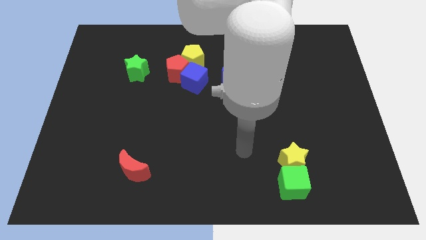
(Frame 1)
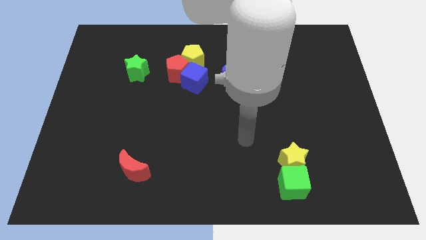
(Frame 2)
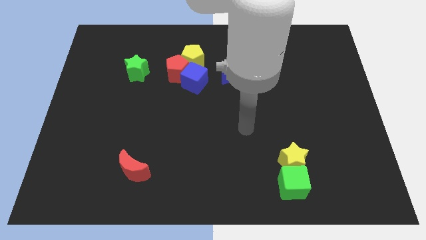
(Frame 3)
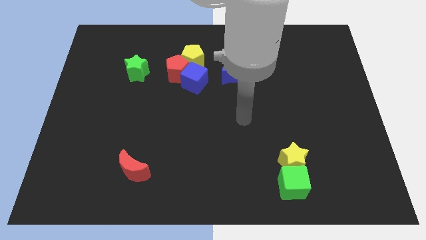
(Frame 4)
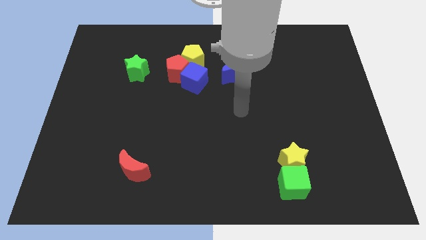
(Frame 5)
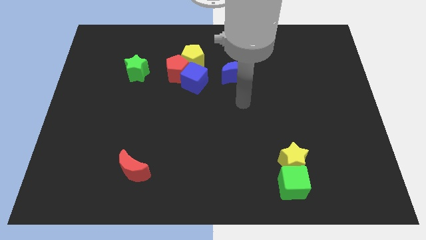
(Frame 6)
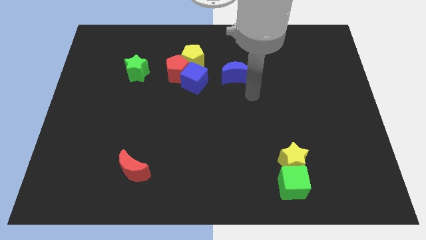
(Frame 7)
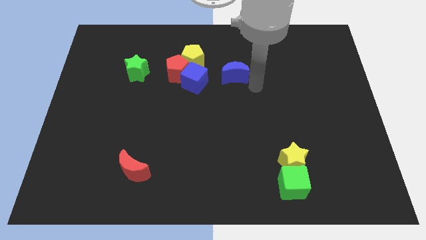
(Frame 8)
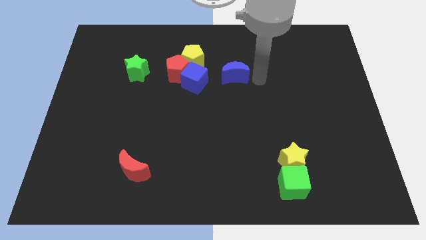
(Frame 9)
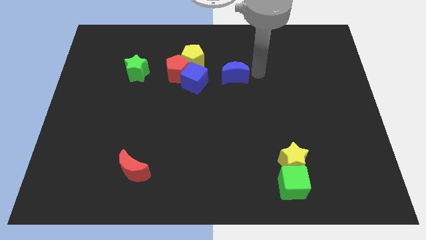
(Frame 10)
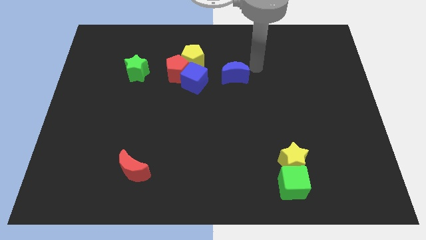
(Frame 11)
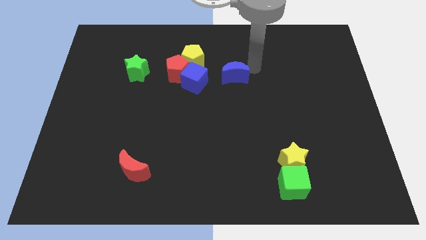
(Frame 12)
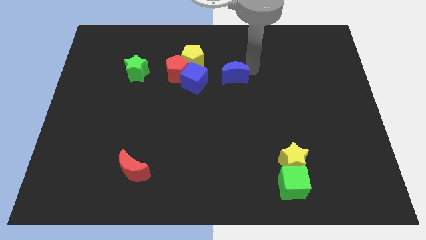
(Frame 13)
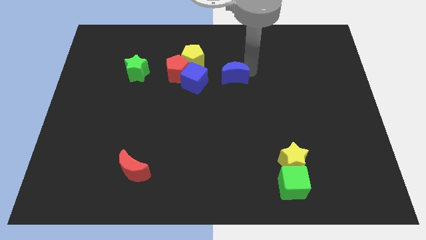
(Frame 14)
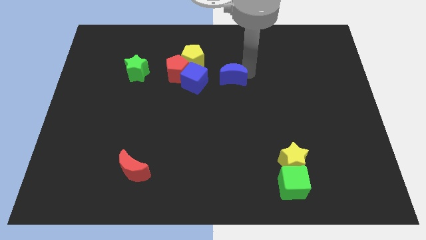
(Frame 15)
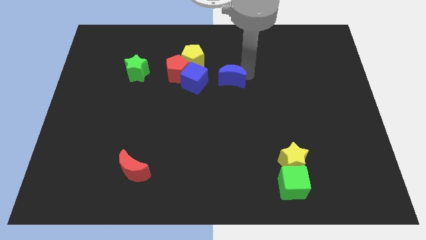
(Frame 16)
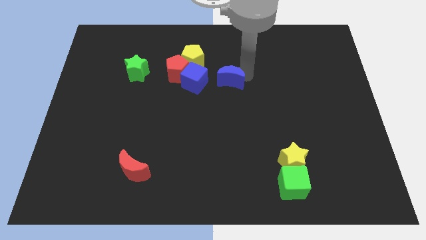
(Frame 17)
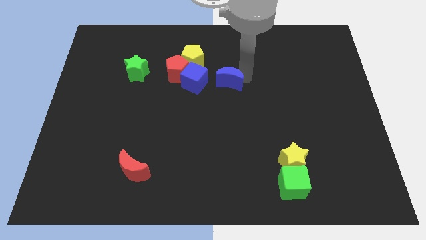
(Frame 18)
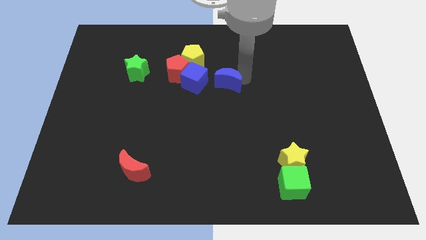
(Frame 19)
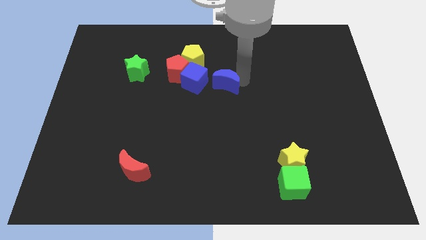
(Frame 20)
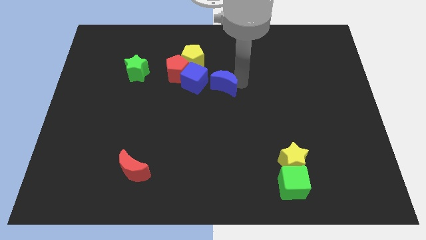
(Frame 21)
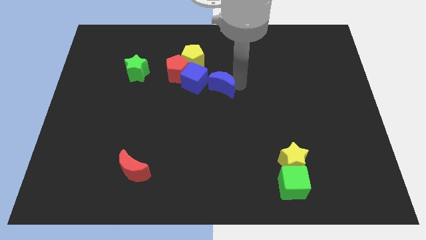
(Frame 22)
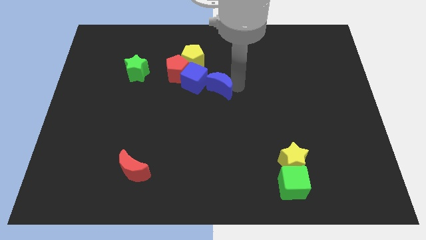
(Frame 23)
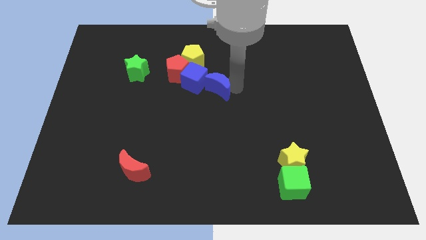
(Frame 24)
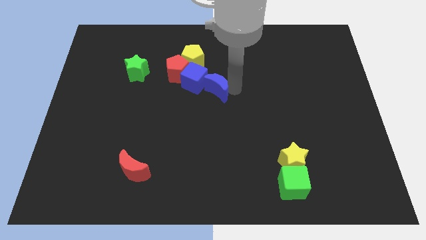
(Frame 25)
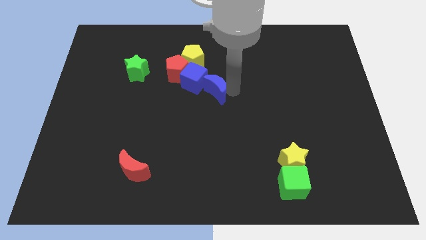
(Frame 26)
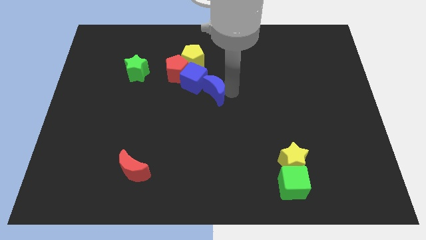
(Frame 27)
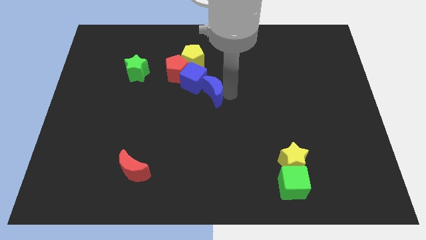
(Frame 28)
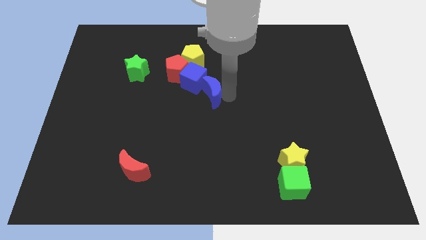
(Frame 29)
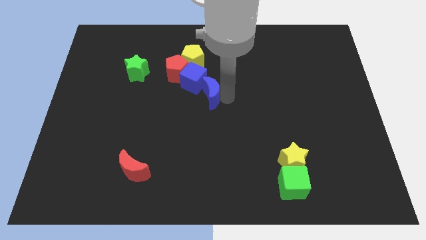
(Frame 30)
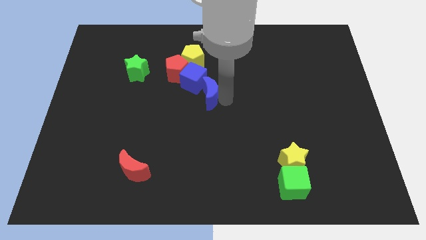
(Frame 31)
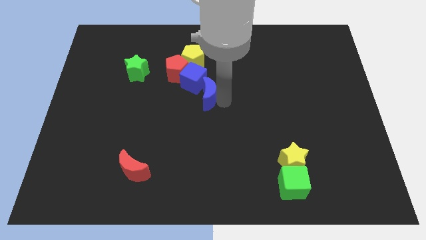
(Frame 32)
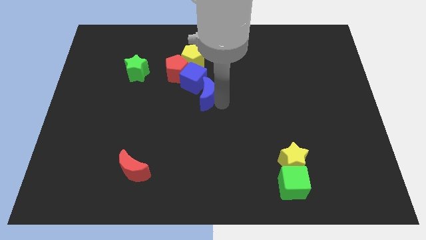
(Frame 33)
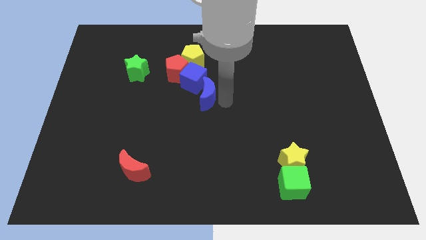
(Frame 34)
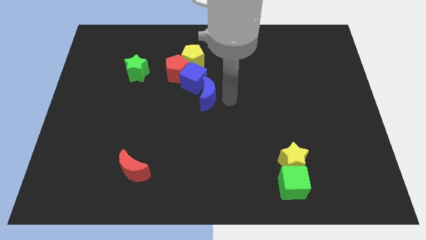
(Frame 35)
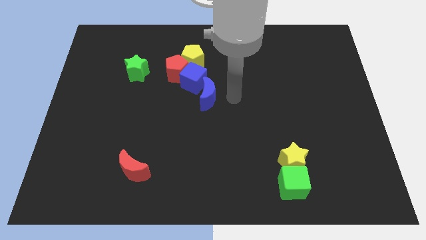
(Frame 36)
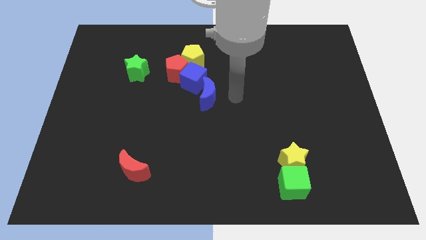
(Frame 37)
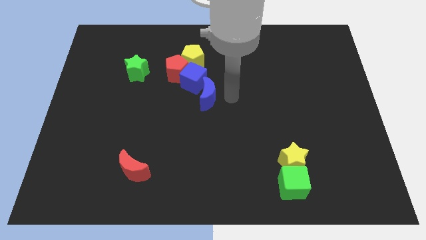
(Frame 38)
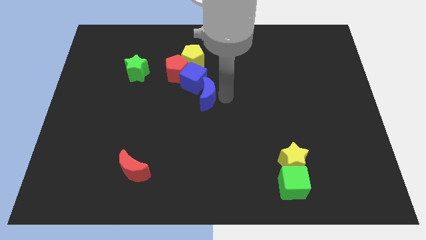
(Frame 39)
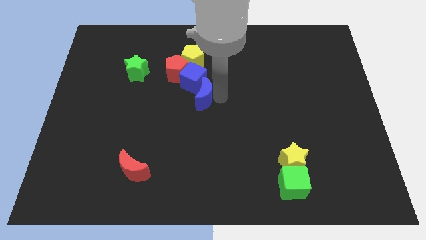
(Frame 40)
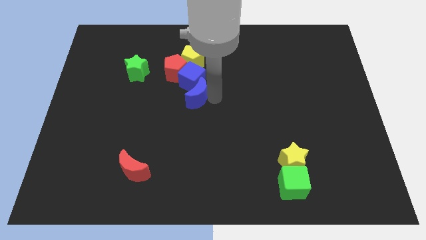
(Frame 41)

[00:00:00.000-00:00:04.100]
slide the blue moon left a little

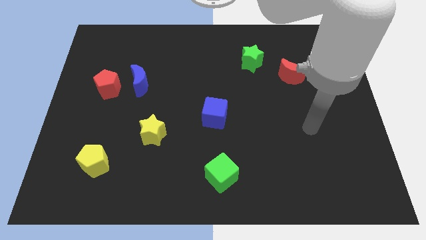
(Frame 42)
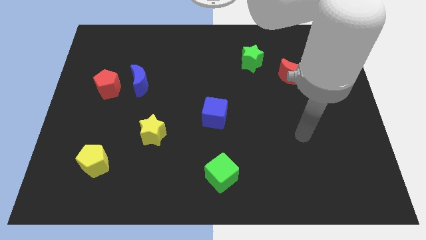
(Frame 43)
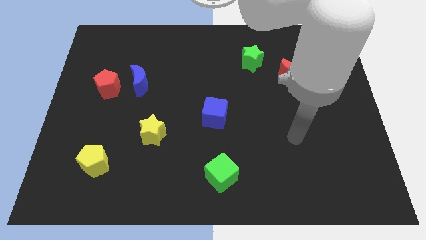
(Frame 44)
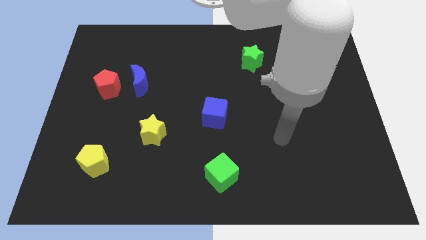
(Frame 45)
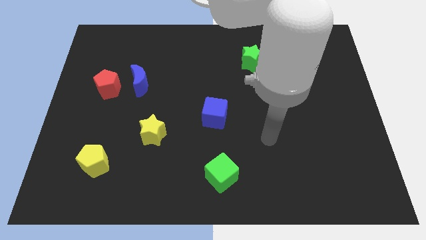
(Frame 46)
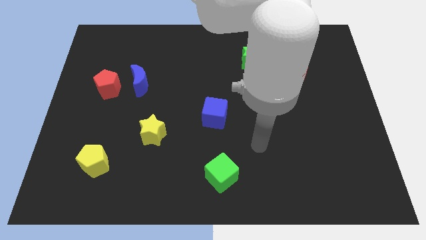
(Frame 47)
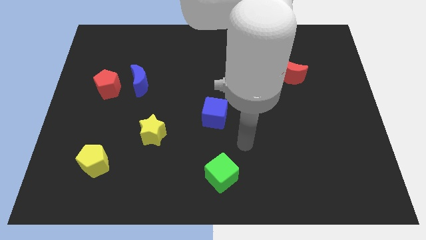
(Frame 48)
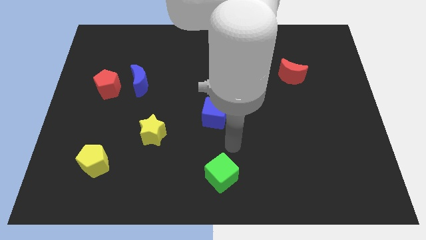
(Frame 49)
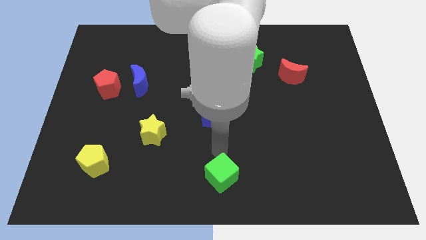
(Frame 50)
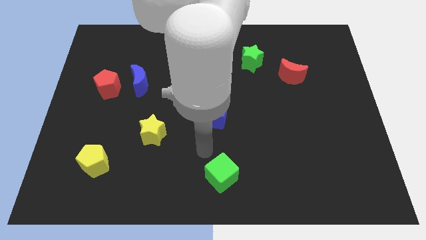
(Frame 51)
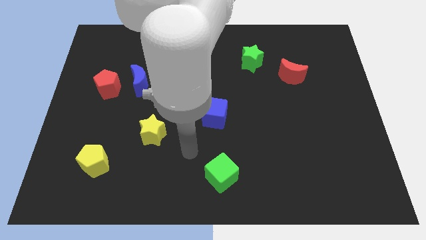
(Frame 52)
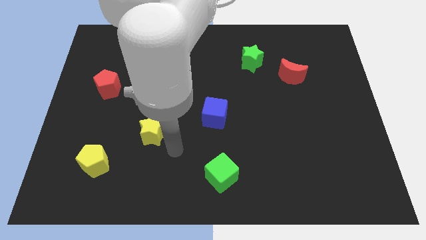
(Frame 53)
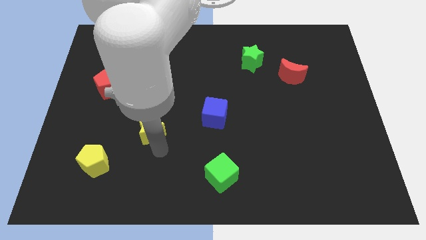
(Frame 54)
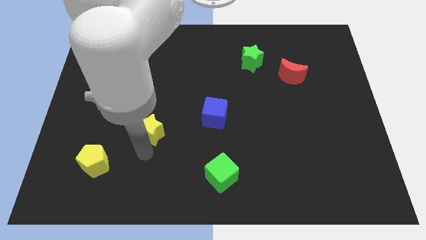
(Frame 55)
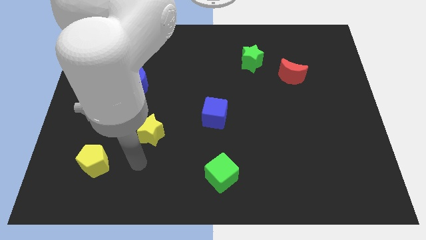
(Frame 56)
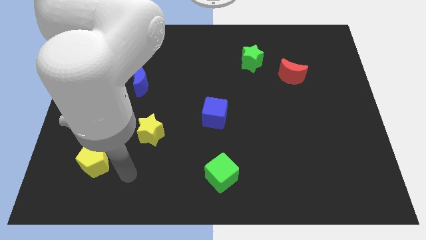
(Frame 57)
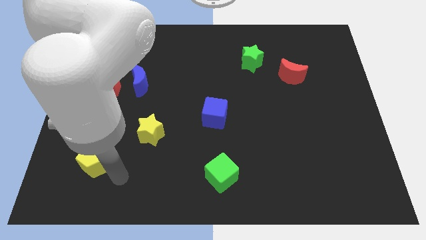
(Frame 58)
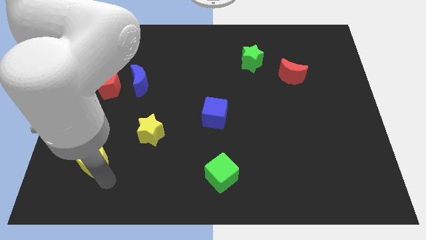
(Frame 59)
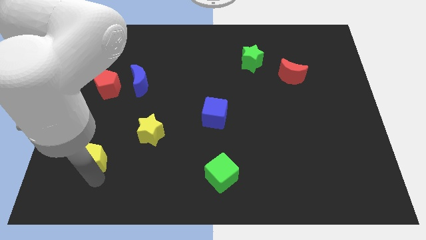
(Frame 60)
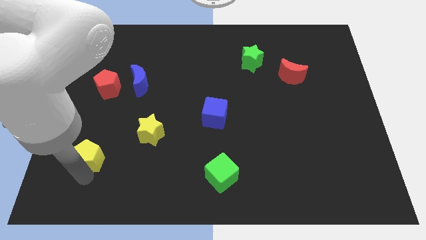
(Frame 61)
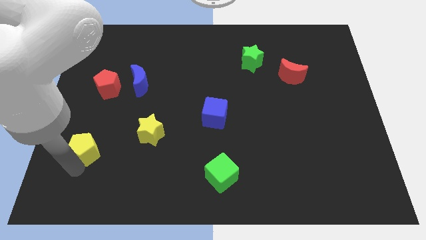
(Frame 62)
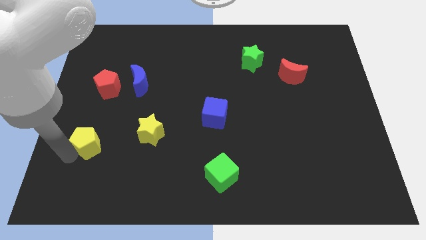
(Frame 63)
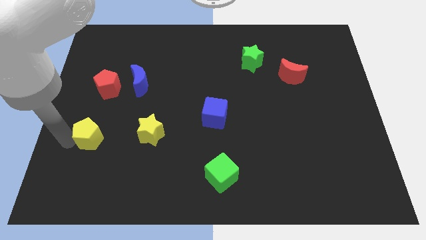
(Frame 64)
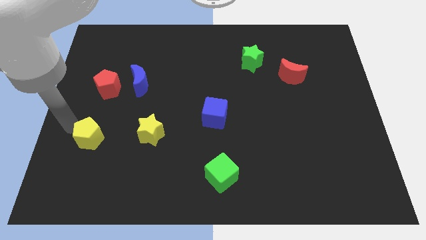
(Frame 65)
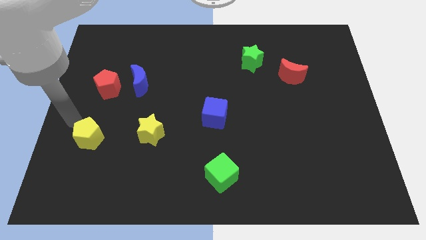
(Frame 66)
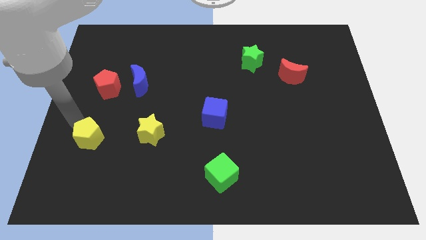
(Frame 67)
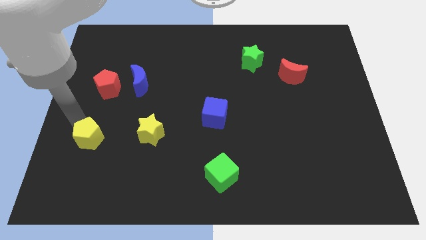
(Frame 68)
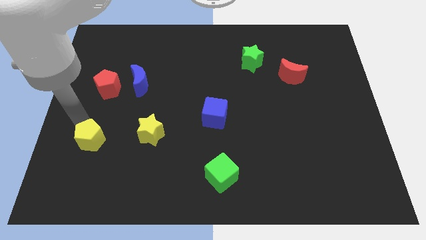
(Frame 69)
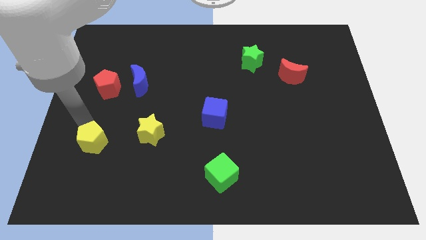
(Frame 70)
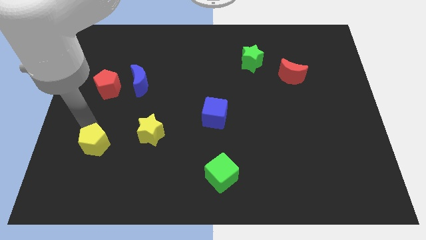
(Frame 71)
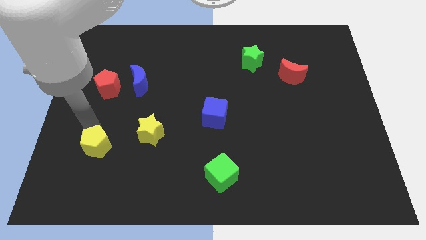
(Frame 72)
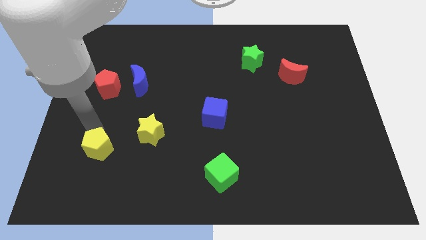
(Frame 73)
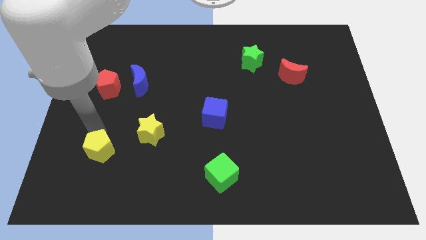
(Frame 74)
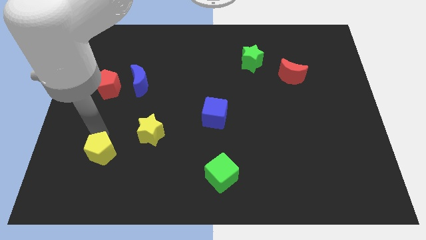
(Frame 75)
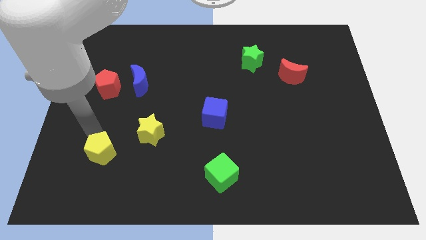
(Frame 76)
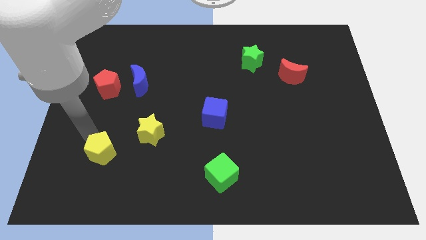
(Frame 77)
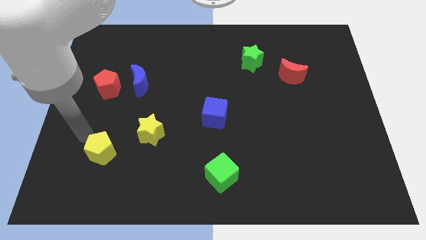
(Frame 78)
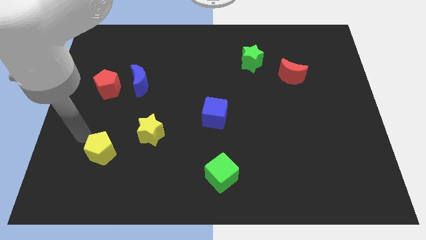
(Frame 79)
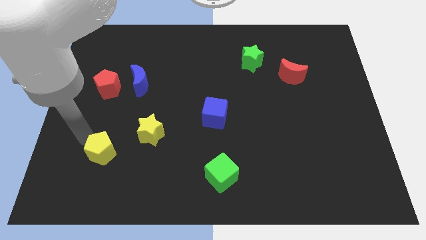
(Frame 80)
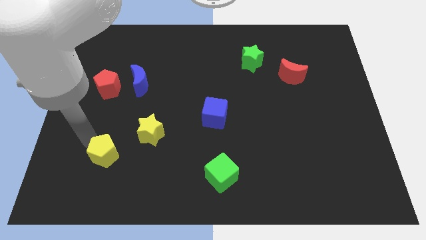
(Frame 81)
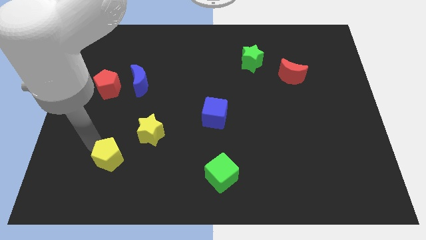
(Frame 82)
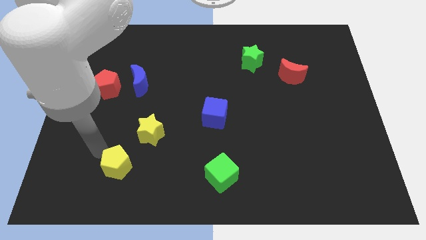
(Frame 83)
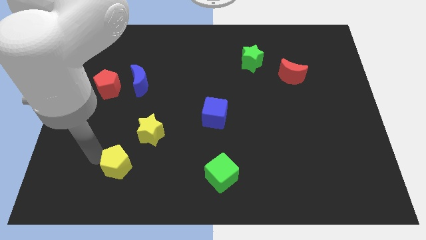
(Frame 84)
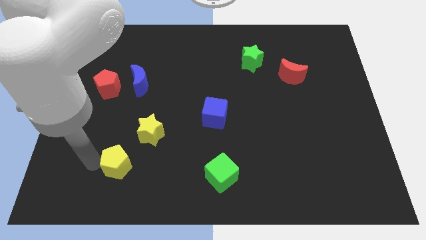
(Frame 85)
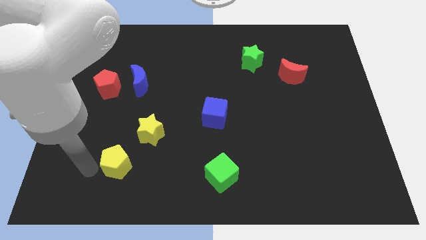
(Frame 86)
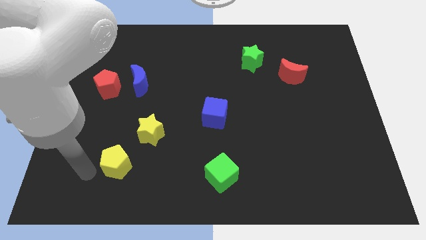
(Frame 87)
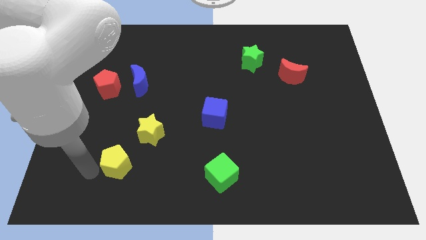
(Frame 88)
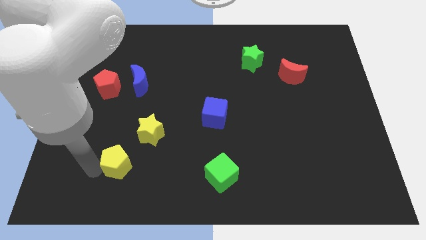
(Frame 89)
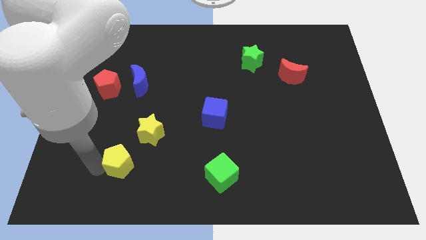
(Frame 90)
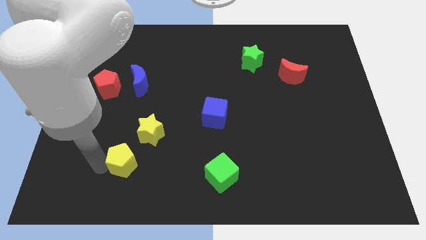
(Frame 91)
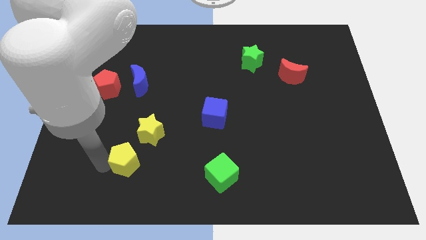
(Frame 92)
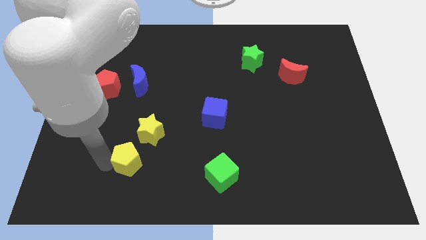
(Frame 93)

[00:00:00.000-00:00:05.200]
slightly slide the yellow pentagon right
